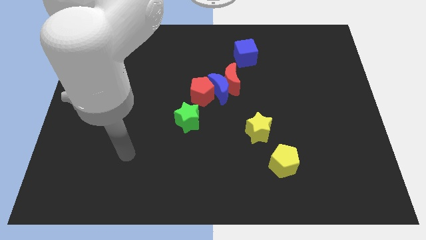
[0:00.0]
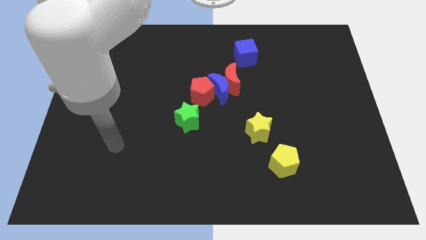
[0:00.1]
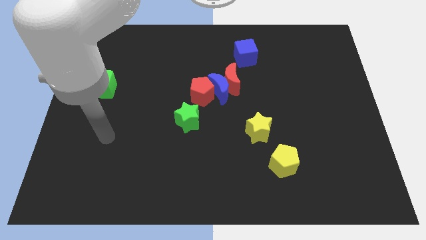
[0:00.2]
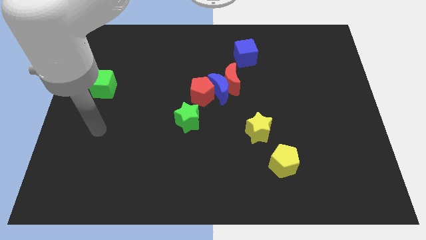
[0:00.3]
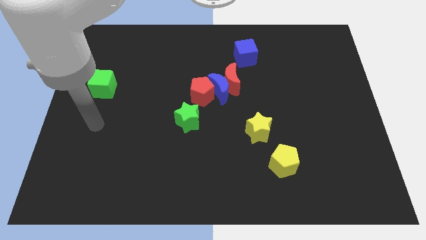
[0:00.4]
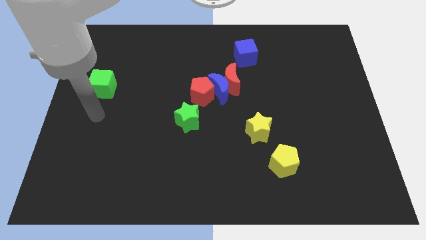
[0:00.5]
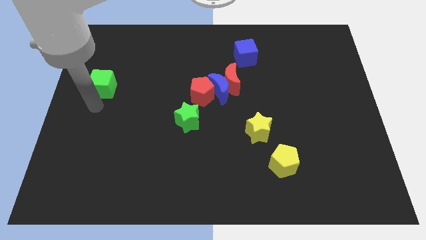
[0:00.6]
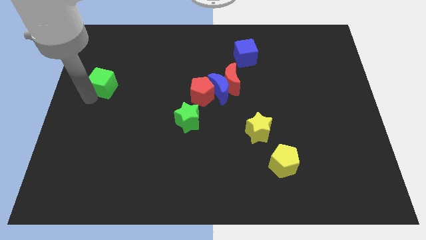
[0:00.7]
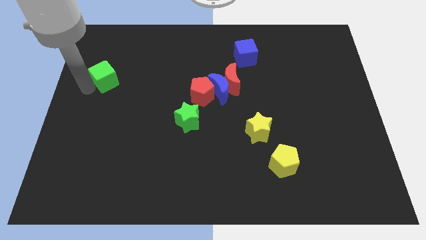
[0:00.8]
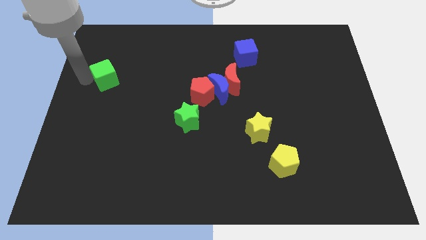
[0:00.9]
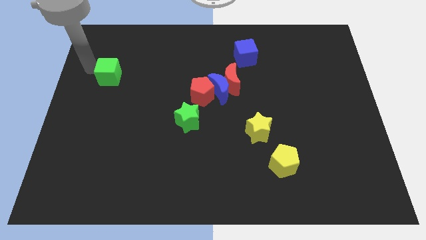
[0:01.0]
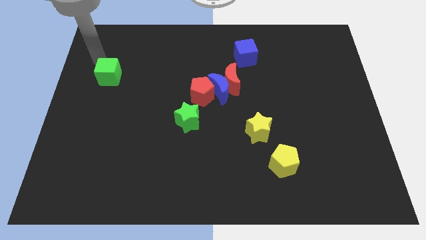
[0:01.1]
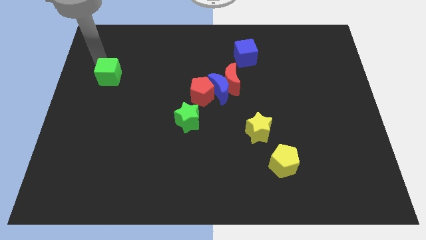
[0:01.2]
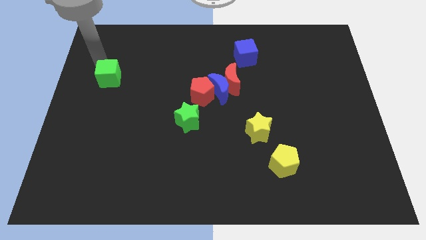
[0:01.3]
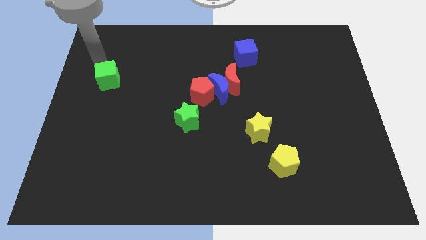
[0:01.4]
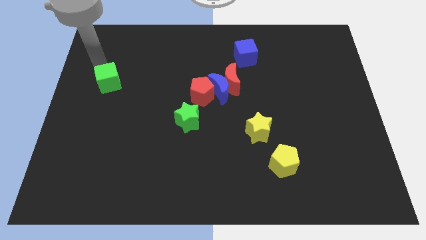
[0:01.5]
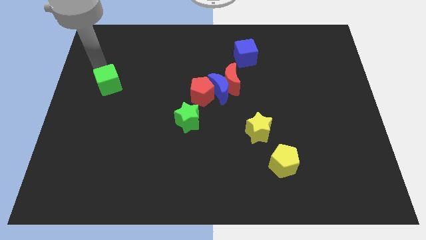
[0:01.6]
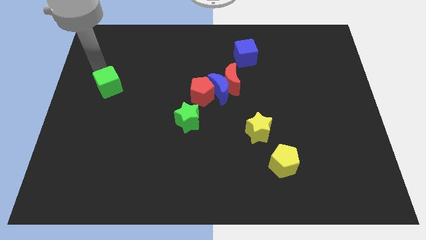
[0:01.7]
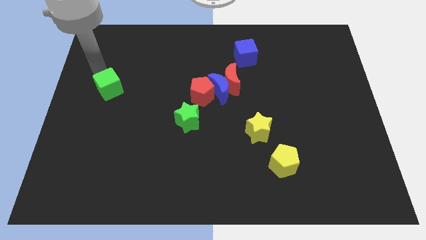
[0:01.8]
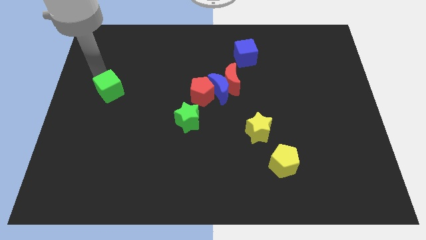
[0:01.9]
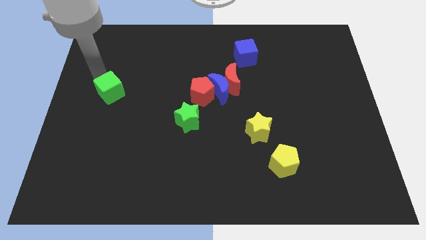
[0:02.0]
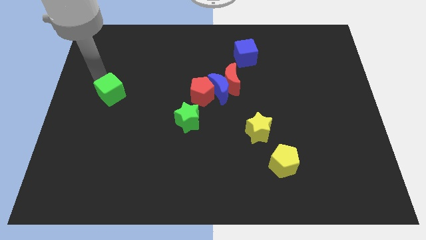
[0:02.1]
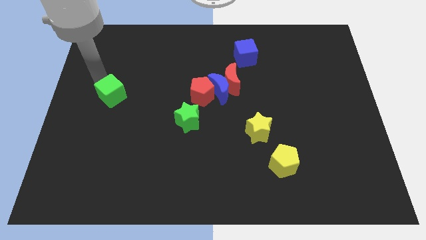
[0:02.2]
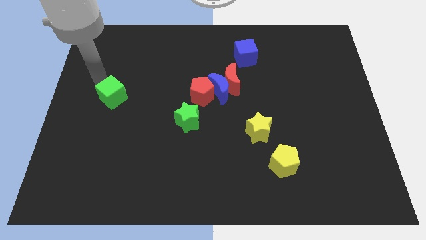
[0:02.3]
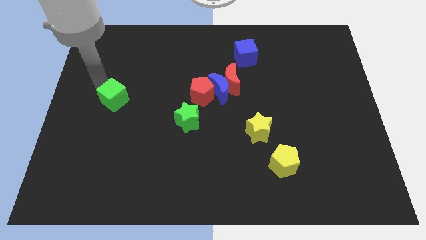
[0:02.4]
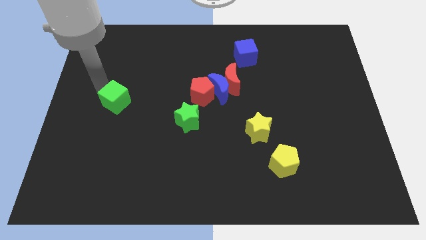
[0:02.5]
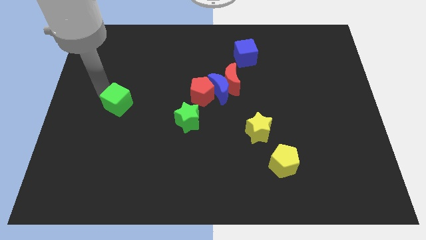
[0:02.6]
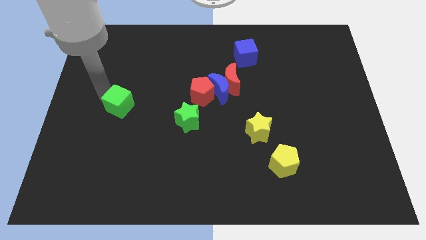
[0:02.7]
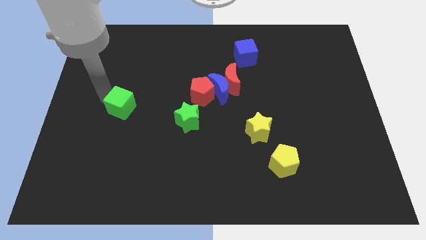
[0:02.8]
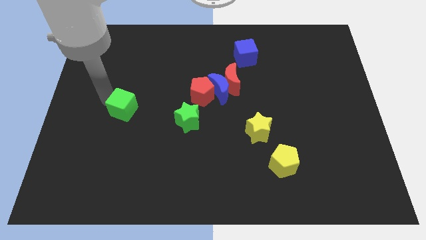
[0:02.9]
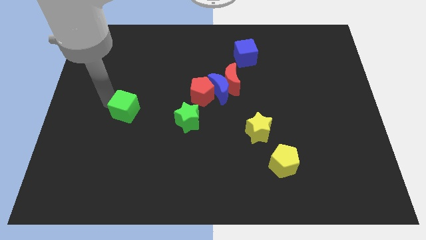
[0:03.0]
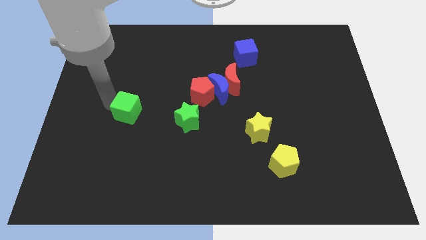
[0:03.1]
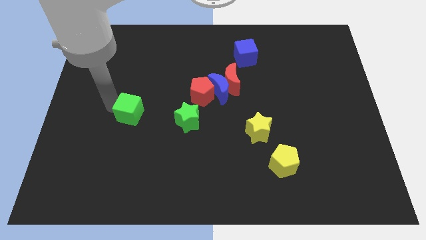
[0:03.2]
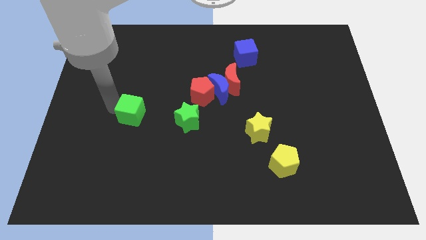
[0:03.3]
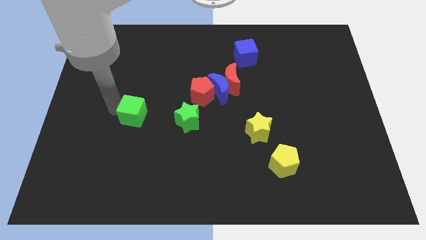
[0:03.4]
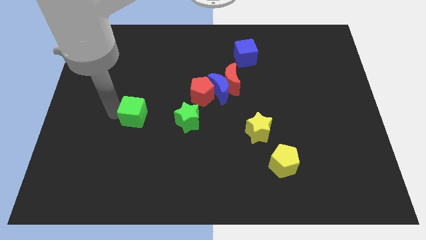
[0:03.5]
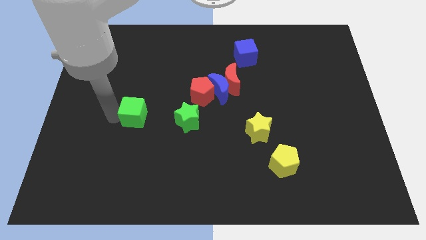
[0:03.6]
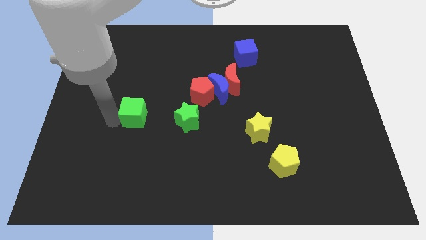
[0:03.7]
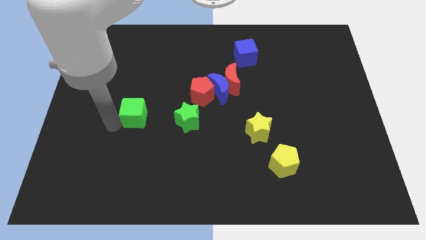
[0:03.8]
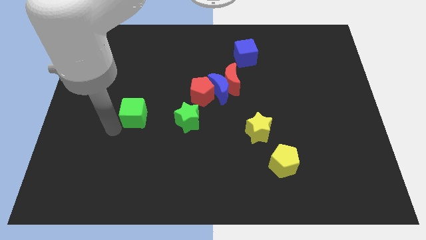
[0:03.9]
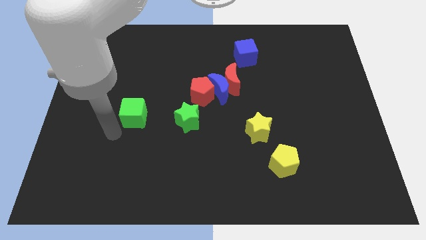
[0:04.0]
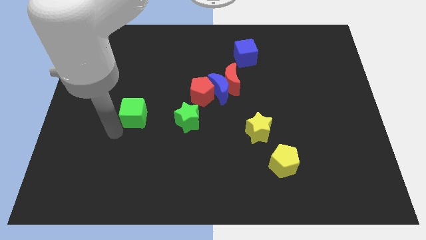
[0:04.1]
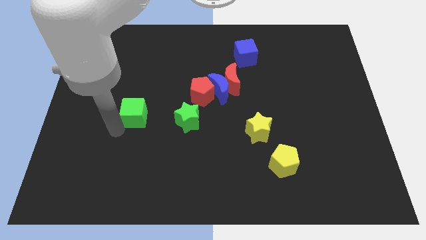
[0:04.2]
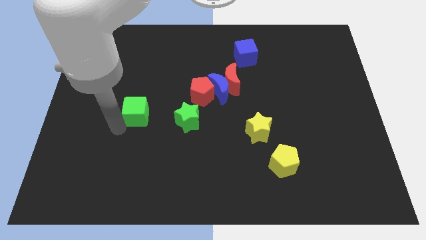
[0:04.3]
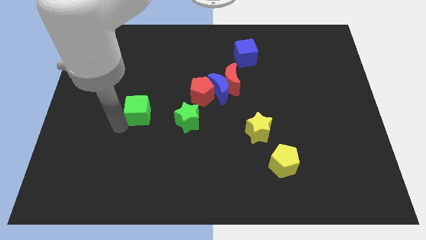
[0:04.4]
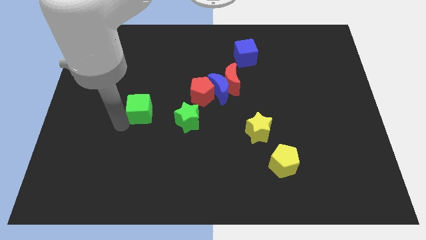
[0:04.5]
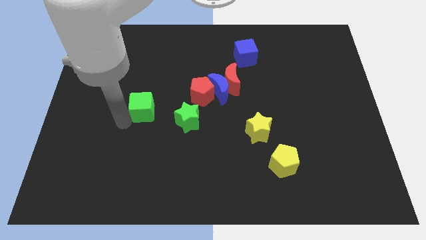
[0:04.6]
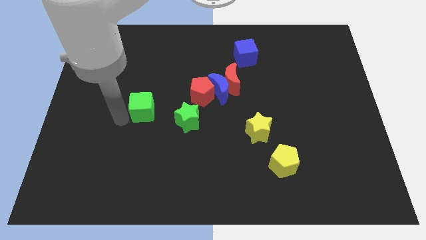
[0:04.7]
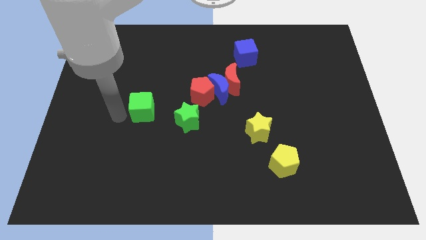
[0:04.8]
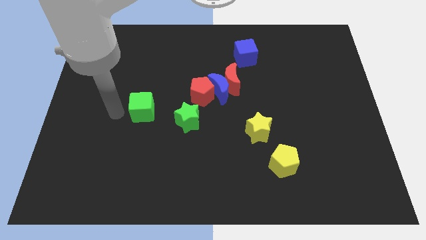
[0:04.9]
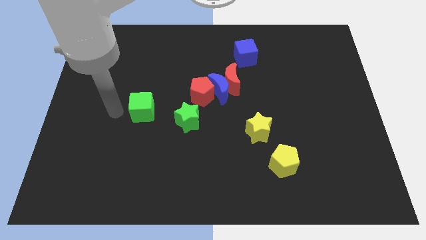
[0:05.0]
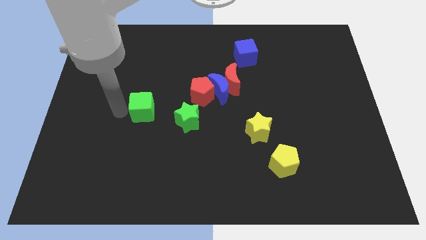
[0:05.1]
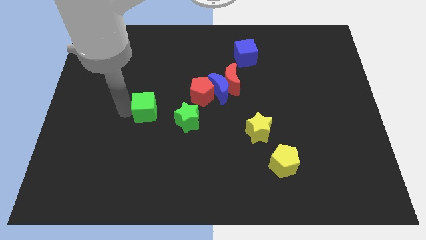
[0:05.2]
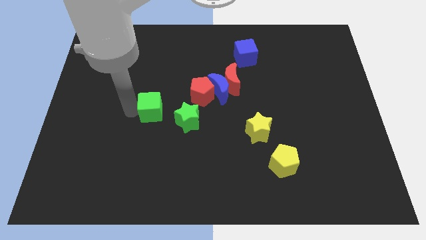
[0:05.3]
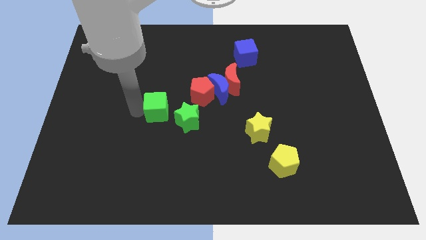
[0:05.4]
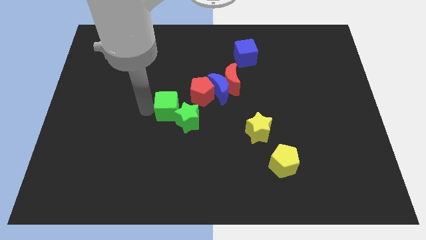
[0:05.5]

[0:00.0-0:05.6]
slide the green cube close to the green star

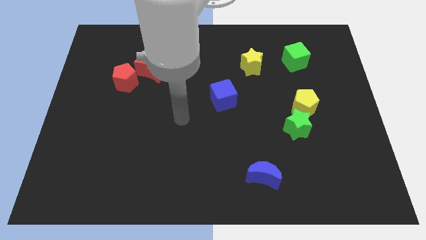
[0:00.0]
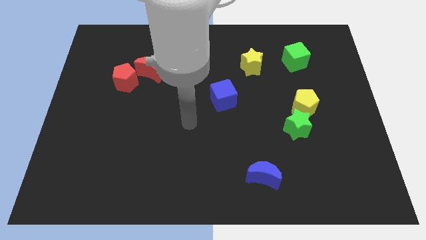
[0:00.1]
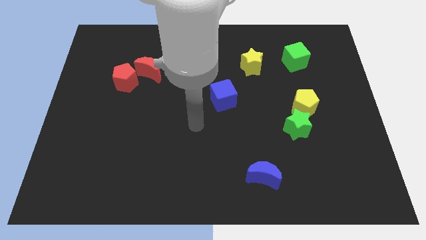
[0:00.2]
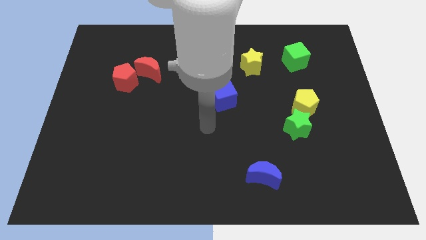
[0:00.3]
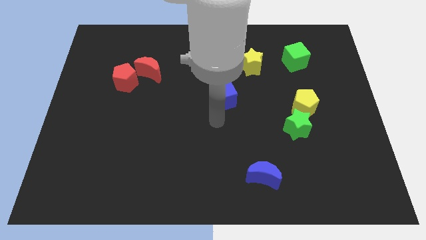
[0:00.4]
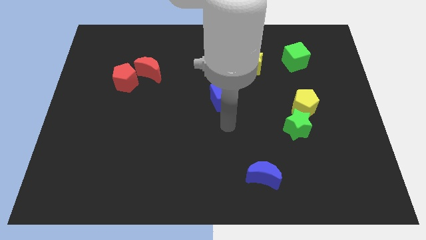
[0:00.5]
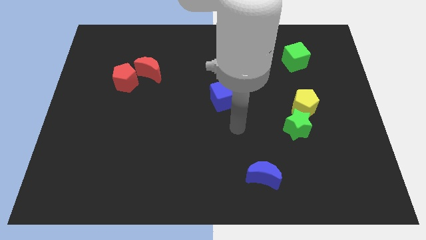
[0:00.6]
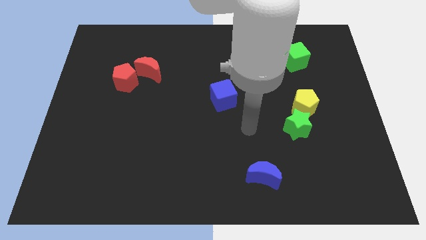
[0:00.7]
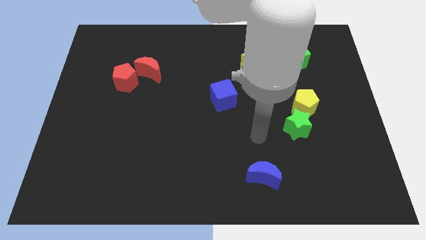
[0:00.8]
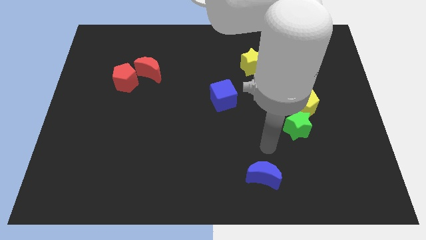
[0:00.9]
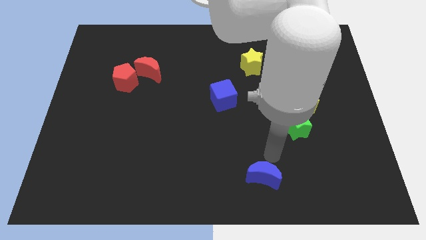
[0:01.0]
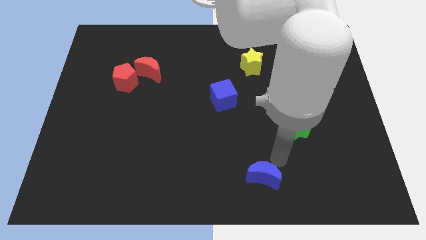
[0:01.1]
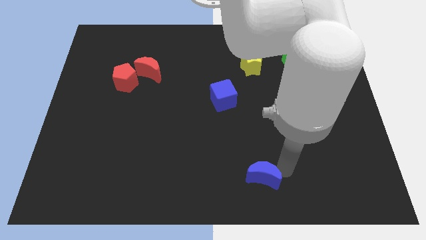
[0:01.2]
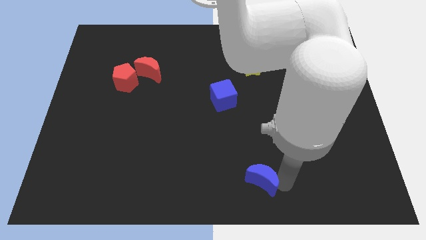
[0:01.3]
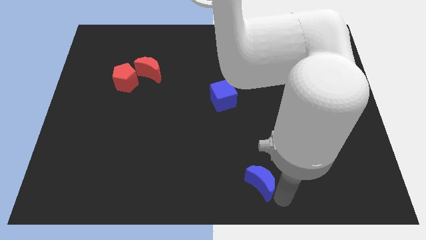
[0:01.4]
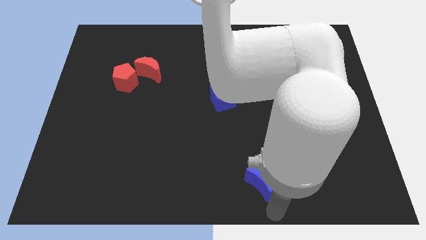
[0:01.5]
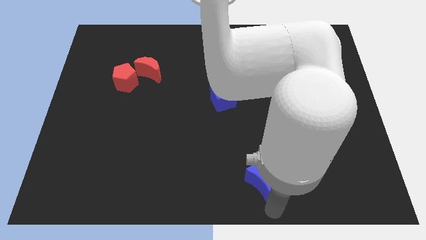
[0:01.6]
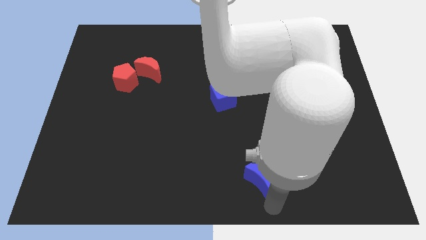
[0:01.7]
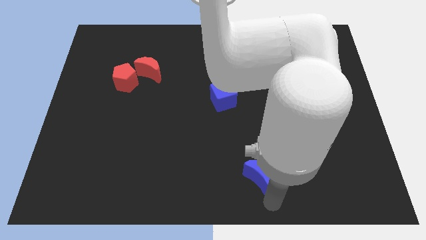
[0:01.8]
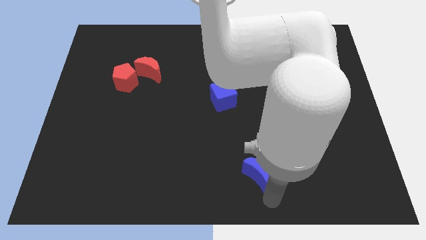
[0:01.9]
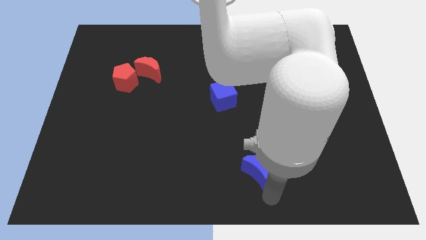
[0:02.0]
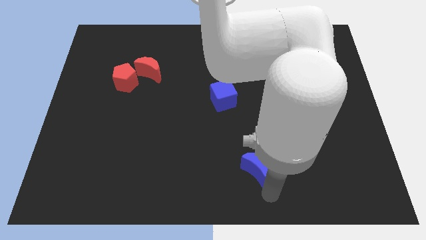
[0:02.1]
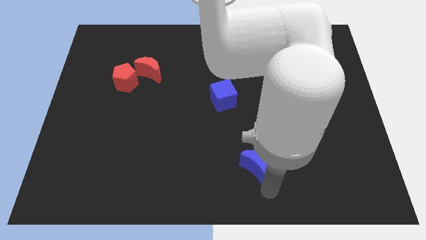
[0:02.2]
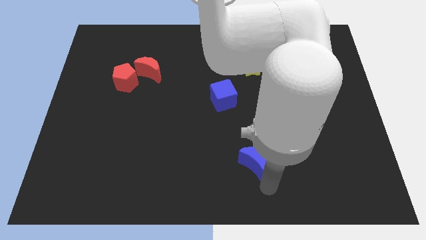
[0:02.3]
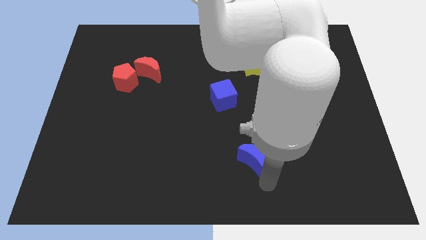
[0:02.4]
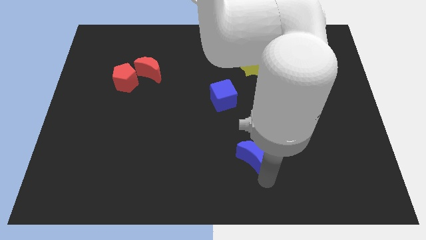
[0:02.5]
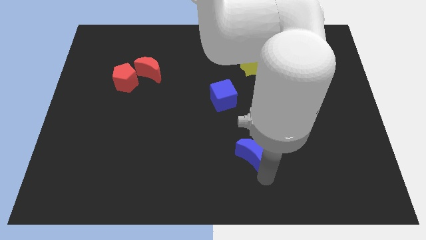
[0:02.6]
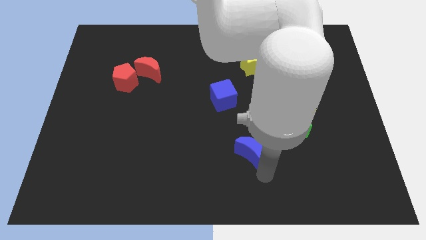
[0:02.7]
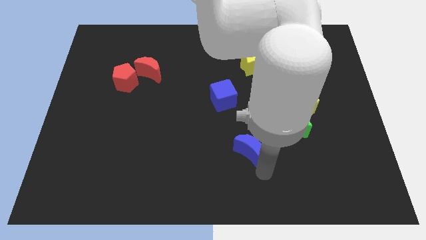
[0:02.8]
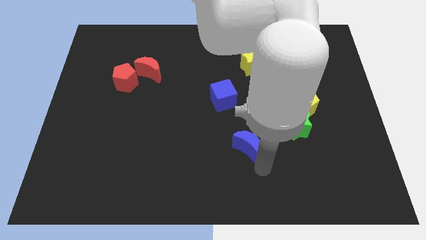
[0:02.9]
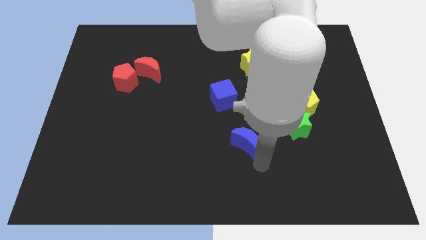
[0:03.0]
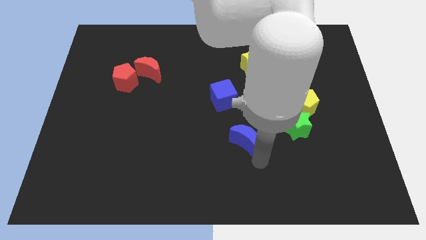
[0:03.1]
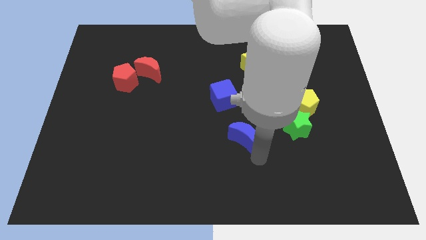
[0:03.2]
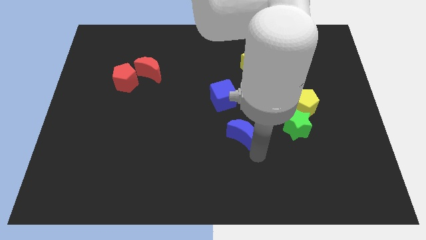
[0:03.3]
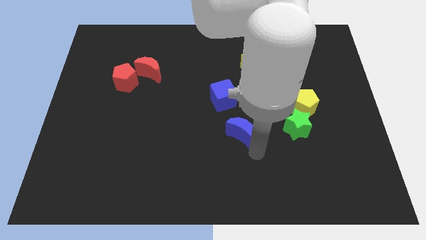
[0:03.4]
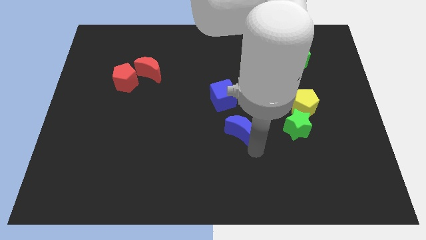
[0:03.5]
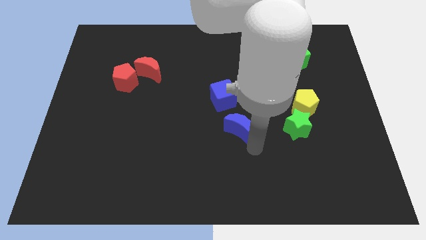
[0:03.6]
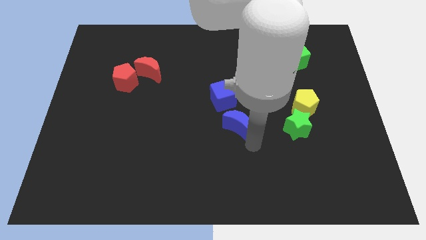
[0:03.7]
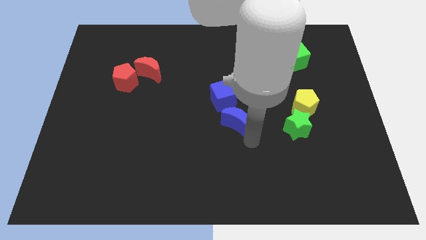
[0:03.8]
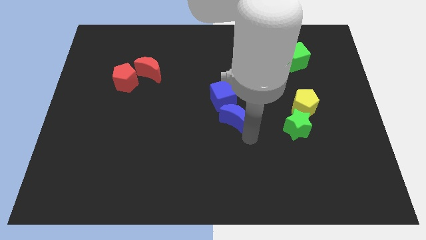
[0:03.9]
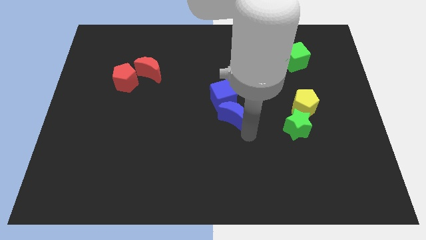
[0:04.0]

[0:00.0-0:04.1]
put the blue moon next to the blue cube
